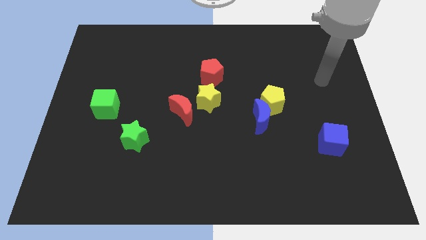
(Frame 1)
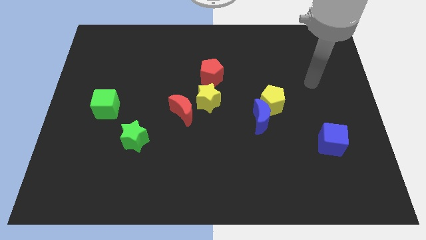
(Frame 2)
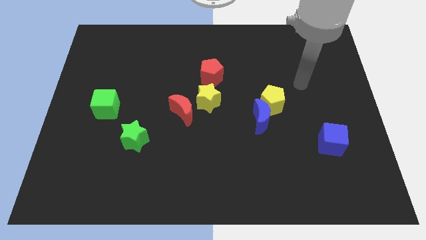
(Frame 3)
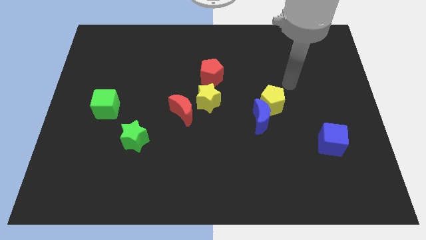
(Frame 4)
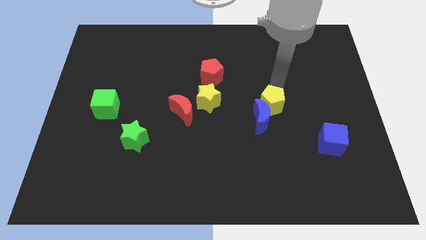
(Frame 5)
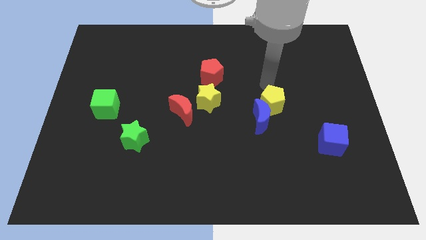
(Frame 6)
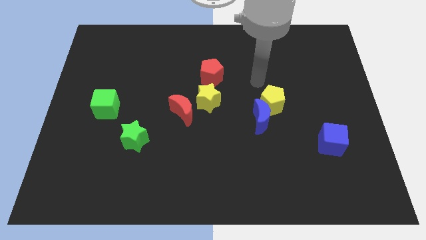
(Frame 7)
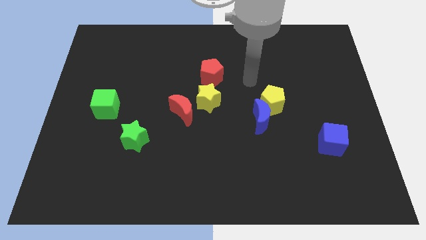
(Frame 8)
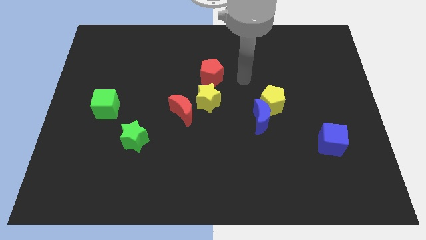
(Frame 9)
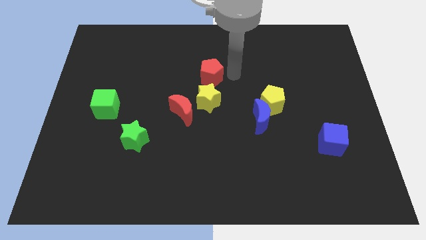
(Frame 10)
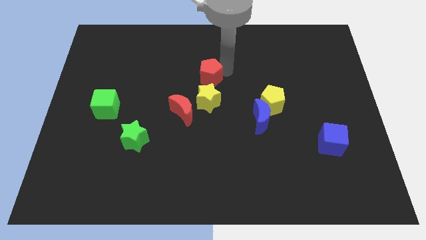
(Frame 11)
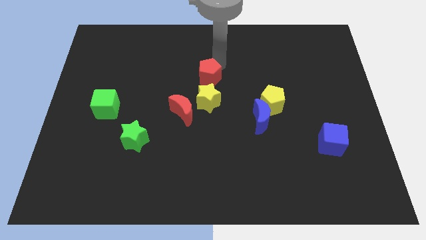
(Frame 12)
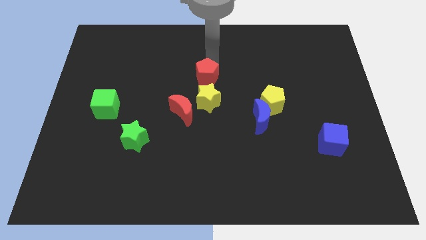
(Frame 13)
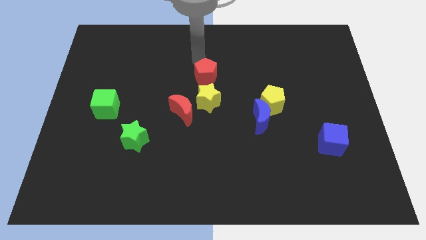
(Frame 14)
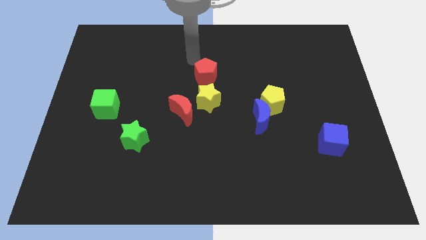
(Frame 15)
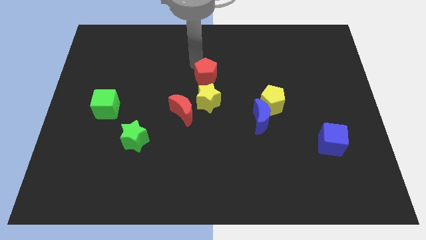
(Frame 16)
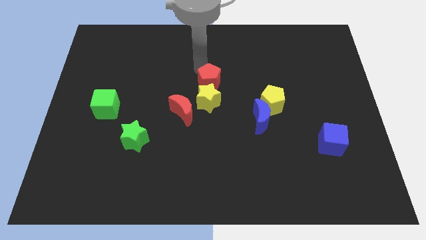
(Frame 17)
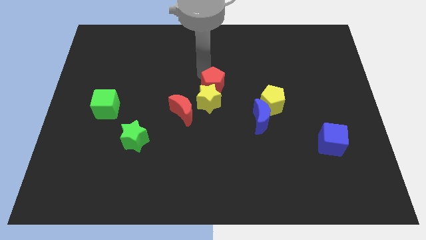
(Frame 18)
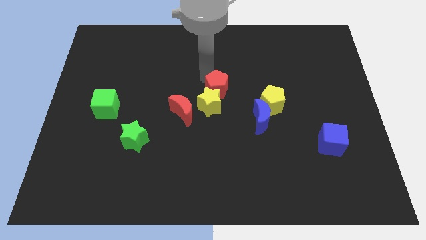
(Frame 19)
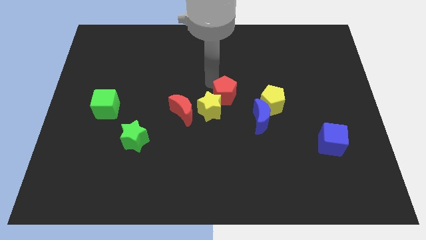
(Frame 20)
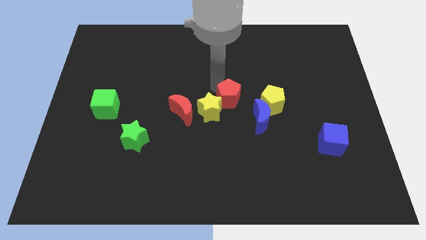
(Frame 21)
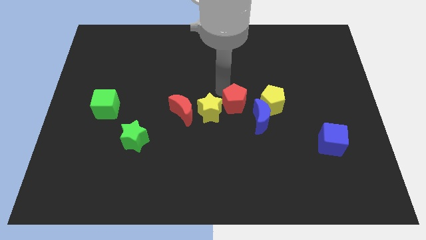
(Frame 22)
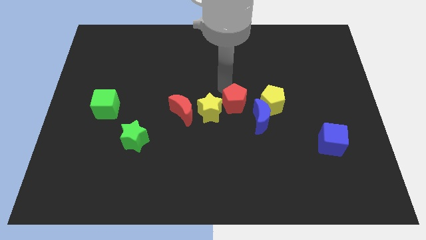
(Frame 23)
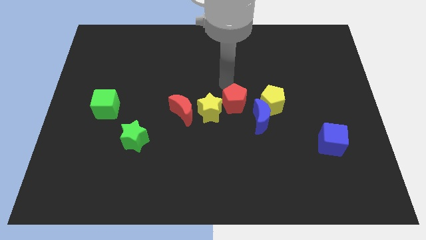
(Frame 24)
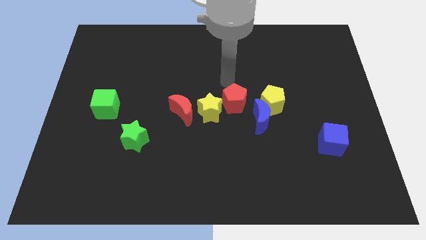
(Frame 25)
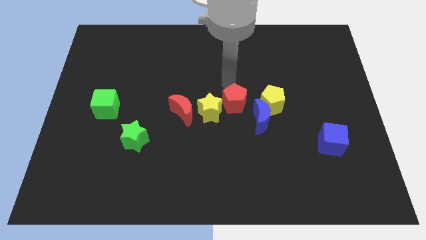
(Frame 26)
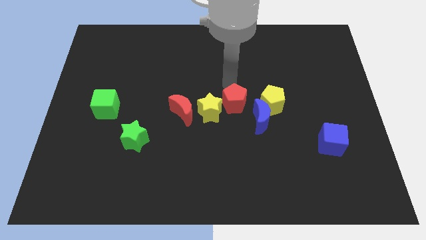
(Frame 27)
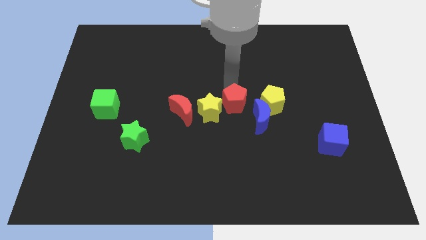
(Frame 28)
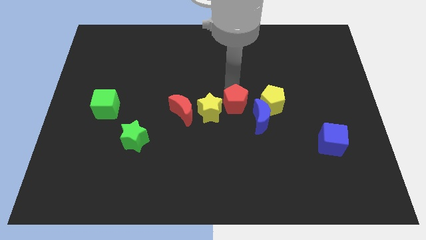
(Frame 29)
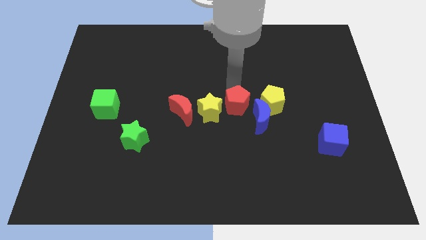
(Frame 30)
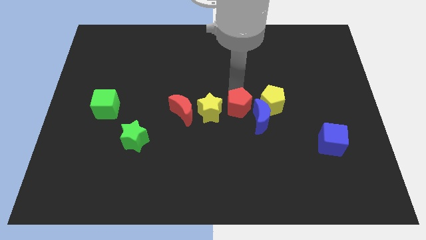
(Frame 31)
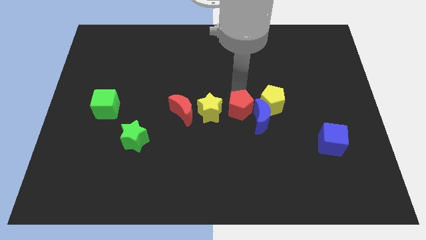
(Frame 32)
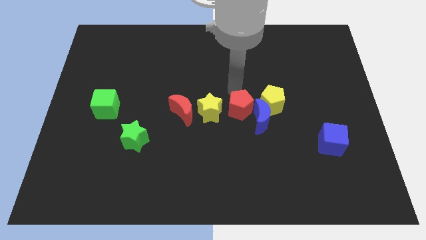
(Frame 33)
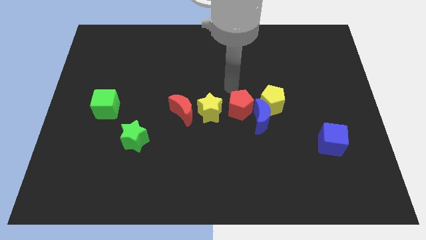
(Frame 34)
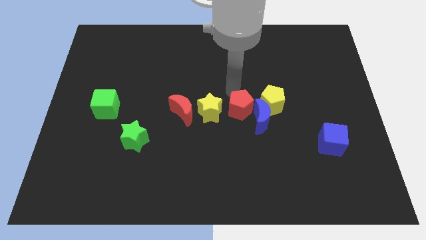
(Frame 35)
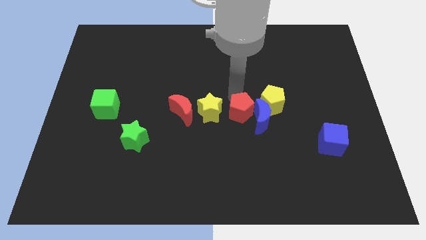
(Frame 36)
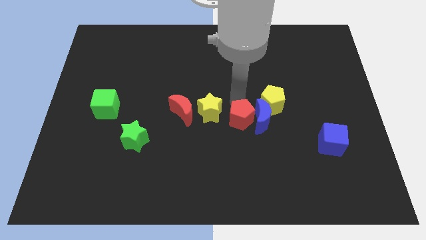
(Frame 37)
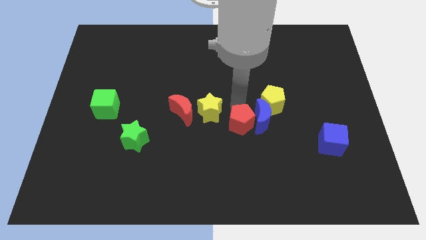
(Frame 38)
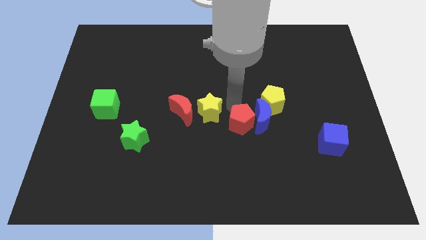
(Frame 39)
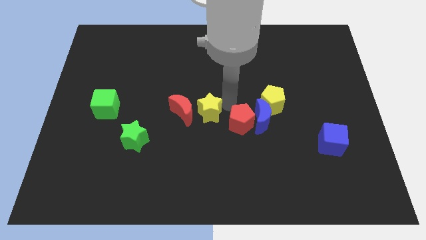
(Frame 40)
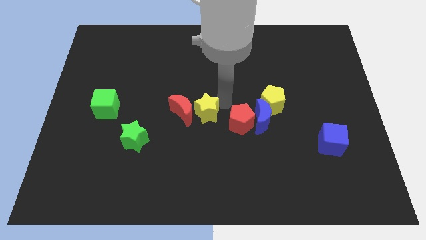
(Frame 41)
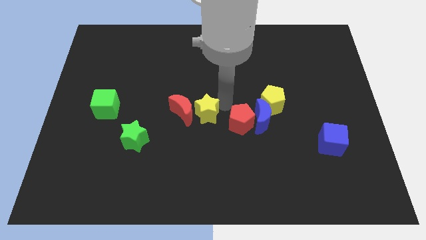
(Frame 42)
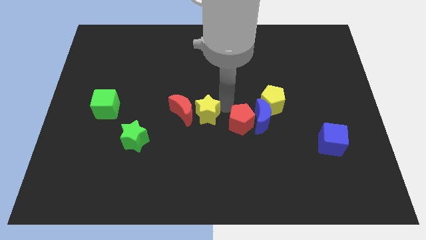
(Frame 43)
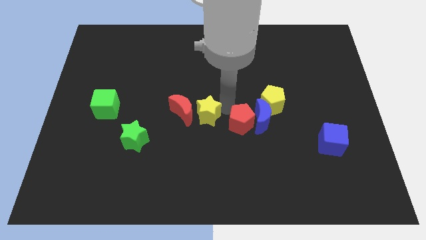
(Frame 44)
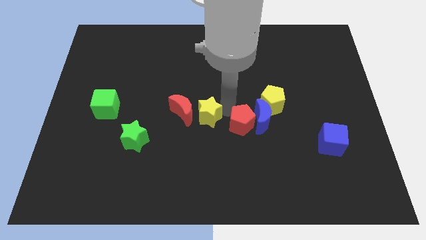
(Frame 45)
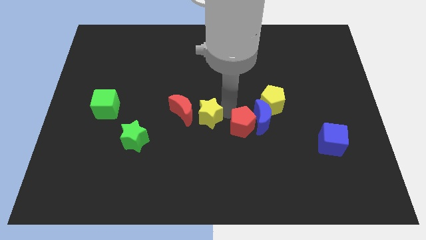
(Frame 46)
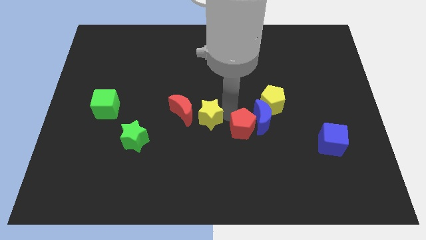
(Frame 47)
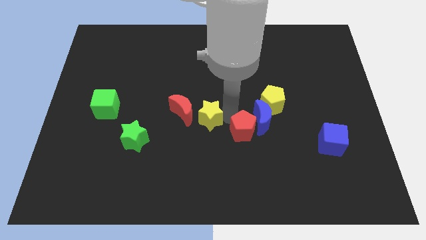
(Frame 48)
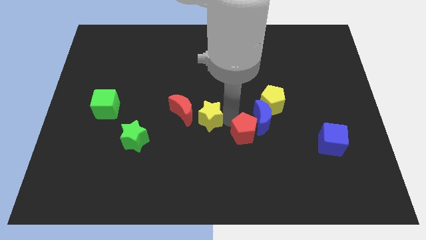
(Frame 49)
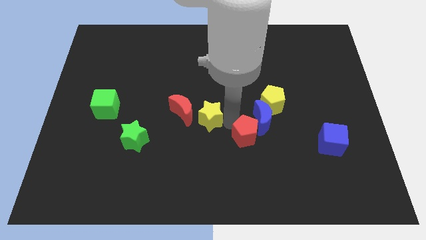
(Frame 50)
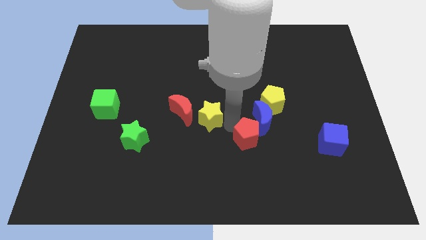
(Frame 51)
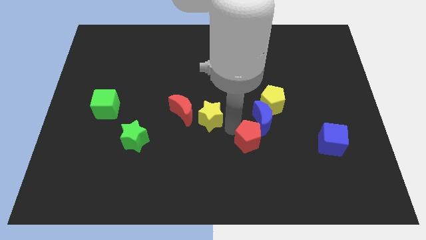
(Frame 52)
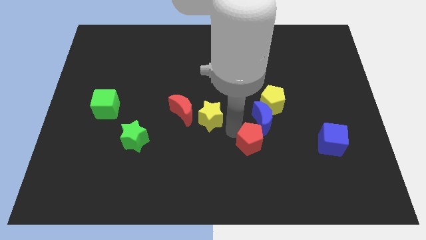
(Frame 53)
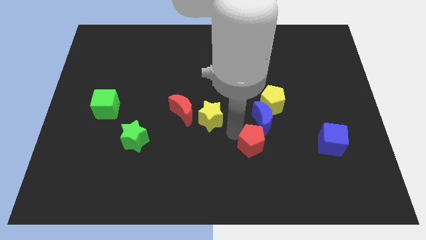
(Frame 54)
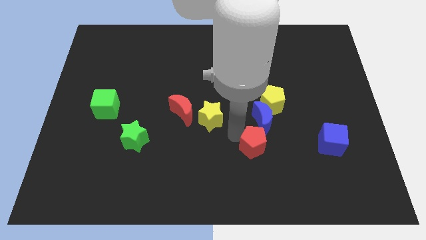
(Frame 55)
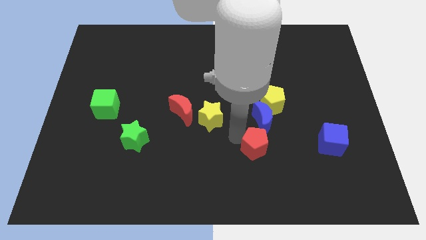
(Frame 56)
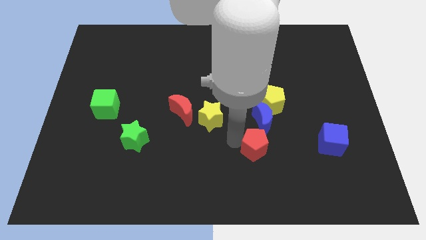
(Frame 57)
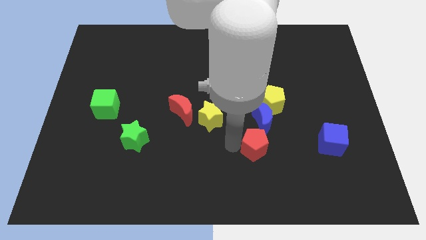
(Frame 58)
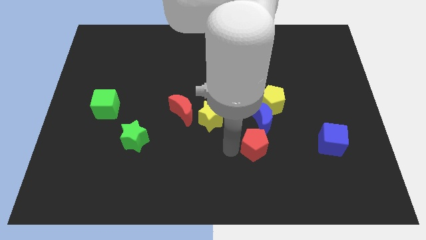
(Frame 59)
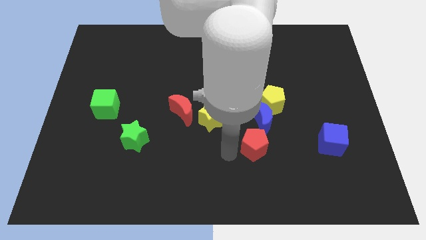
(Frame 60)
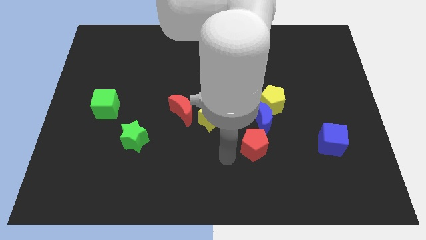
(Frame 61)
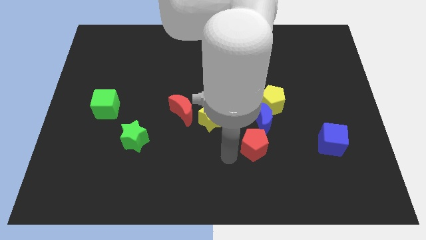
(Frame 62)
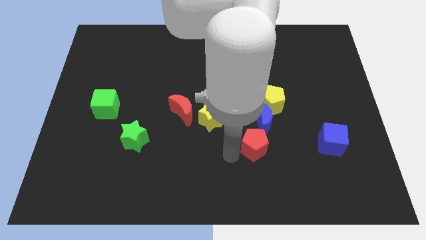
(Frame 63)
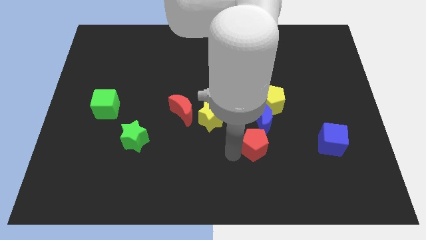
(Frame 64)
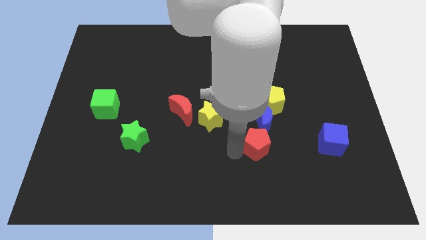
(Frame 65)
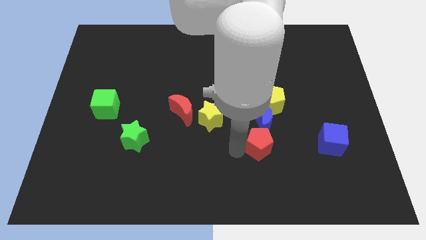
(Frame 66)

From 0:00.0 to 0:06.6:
move the red pentagon diagonally downwards and right

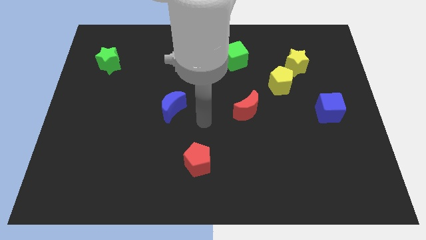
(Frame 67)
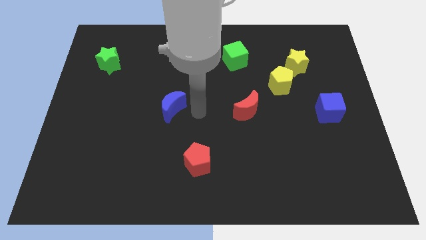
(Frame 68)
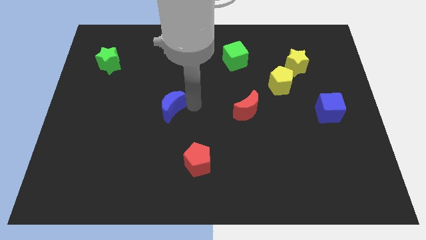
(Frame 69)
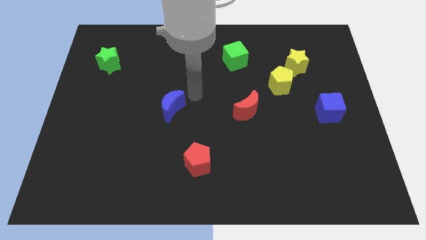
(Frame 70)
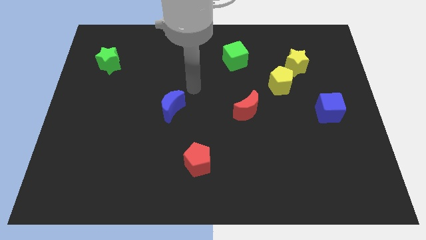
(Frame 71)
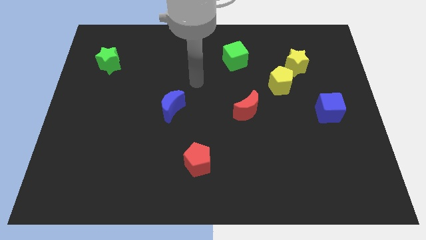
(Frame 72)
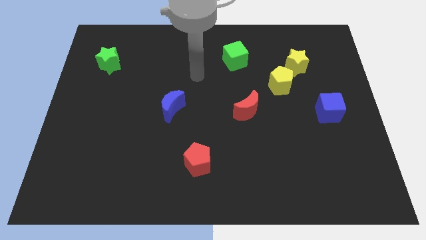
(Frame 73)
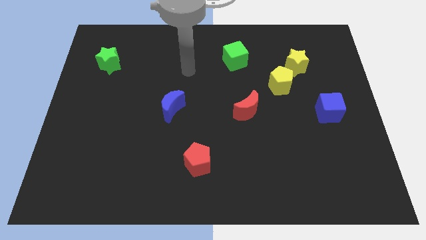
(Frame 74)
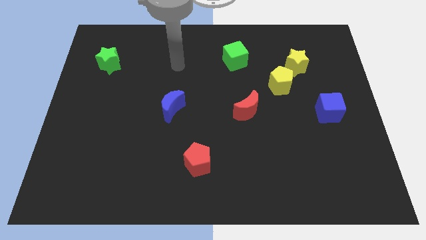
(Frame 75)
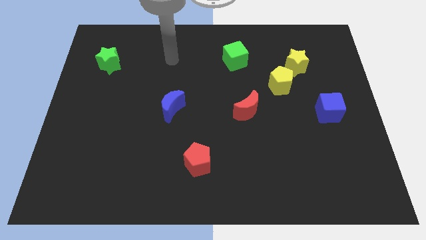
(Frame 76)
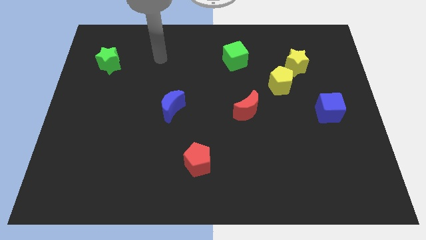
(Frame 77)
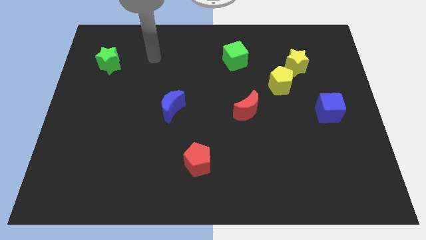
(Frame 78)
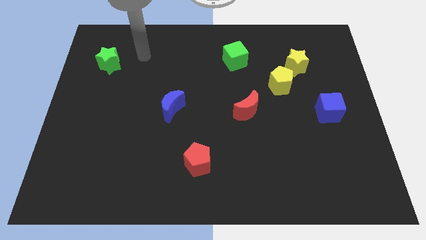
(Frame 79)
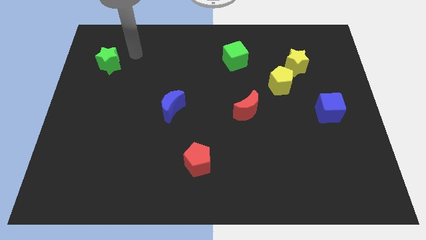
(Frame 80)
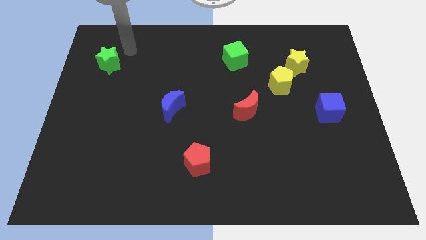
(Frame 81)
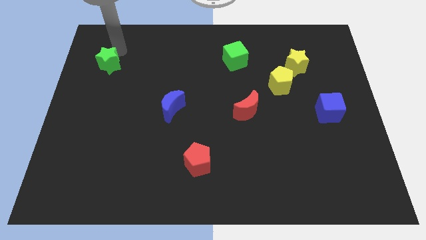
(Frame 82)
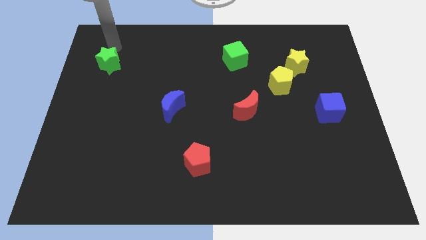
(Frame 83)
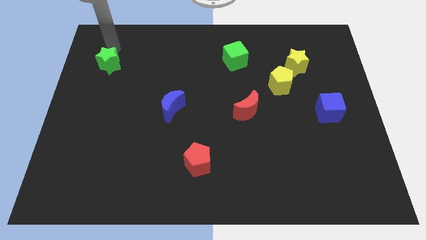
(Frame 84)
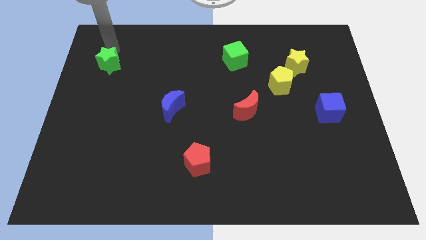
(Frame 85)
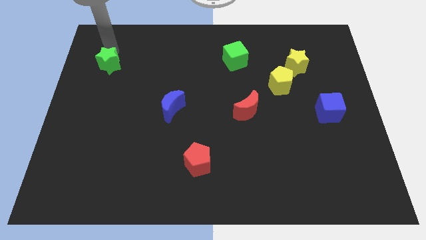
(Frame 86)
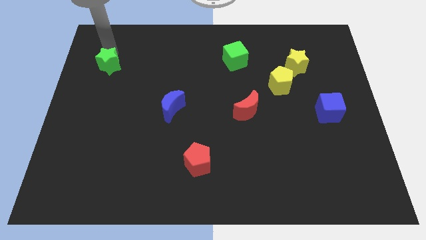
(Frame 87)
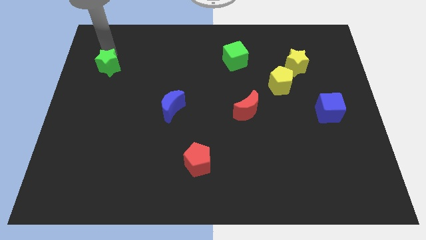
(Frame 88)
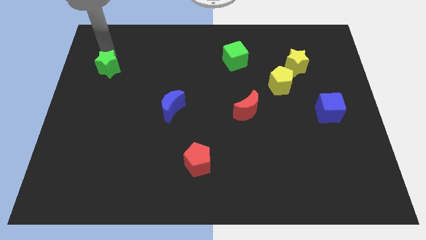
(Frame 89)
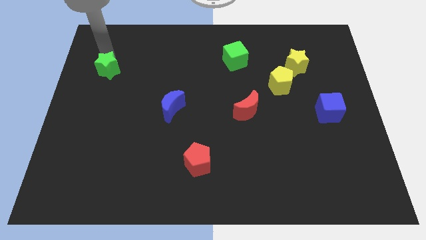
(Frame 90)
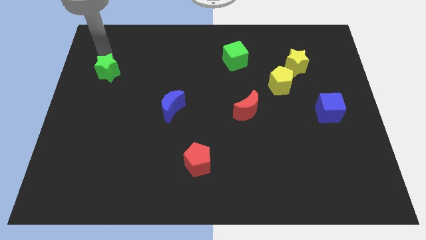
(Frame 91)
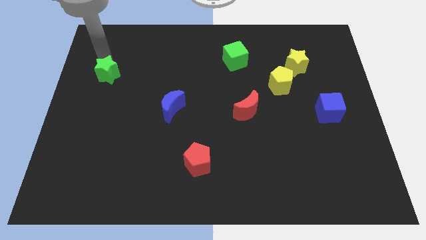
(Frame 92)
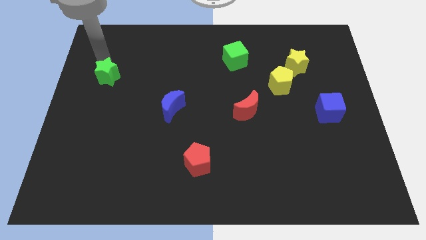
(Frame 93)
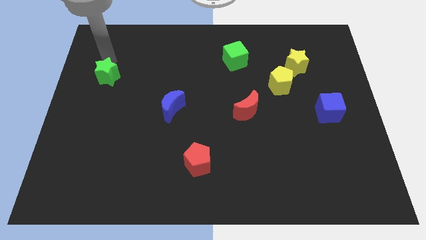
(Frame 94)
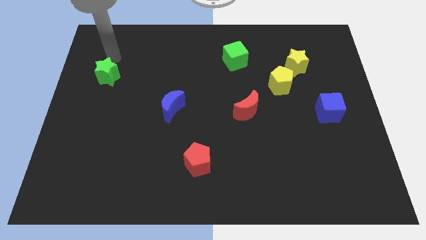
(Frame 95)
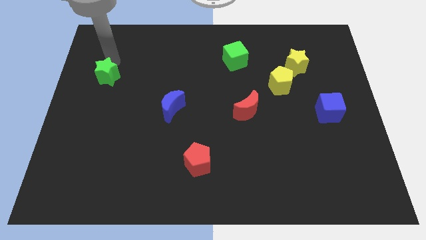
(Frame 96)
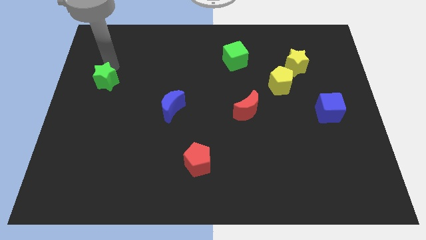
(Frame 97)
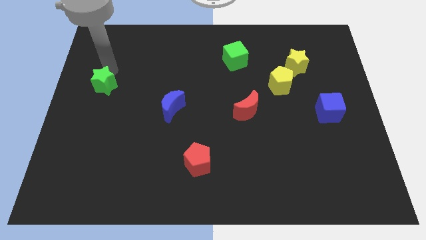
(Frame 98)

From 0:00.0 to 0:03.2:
slightly slide the green star down
